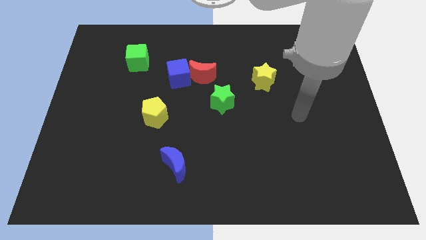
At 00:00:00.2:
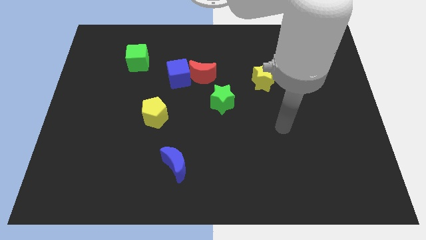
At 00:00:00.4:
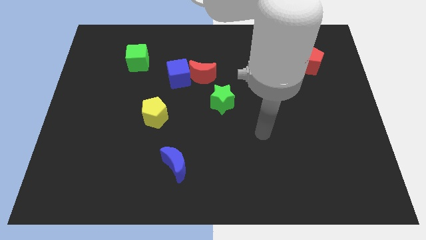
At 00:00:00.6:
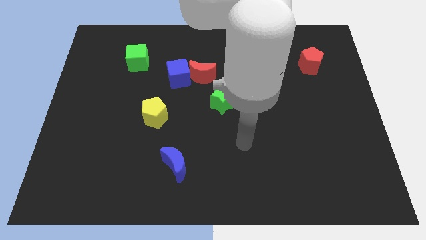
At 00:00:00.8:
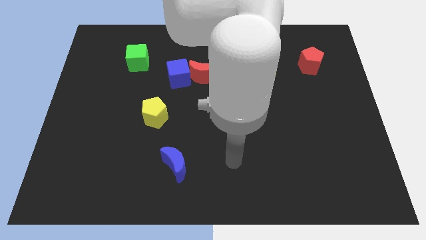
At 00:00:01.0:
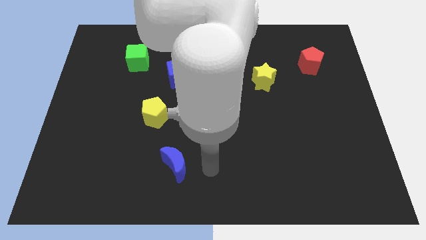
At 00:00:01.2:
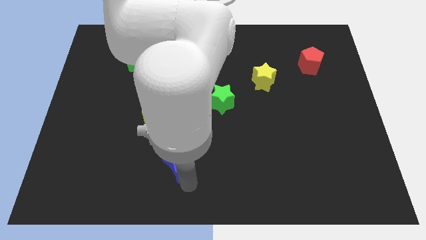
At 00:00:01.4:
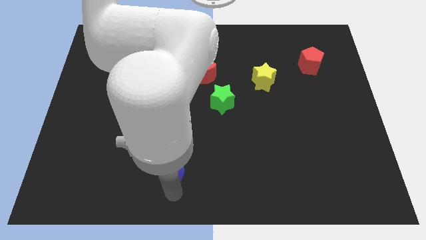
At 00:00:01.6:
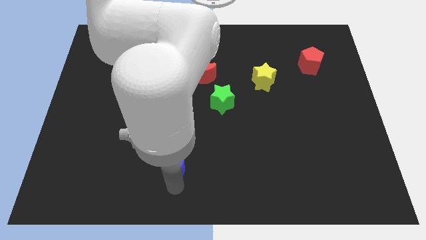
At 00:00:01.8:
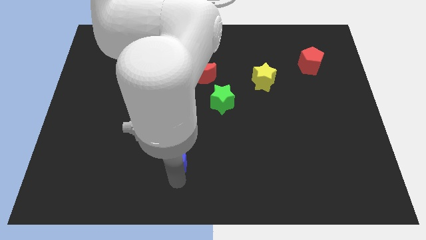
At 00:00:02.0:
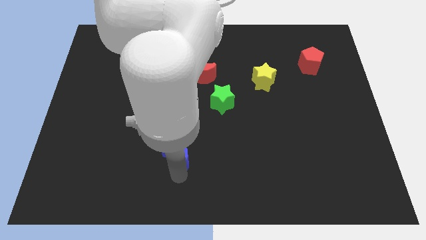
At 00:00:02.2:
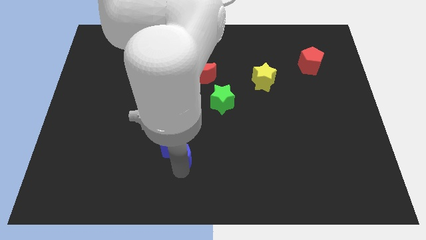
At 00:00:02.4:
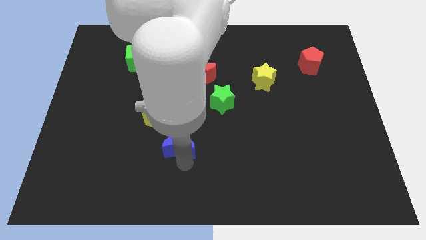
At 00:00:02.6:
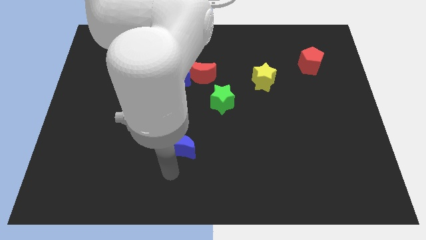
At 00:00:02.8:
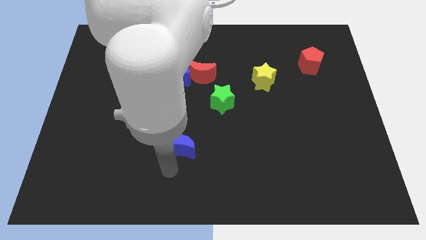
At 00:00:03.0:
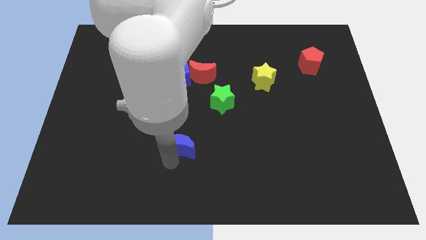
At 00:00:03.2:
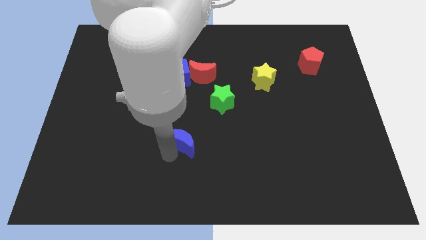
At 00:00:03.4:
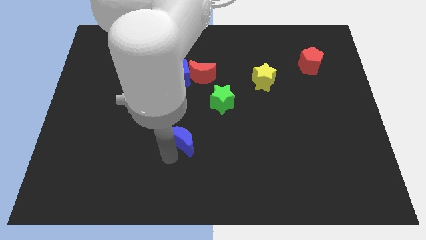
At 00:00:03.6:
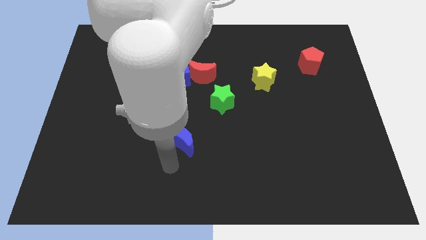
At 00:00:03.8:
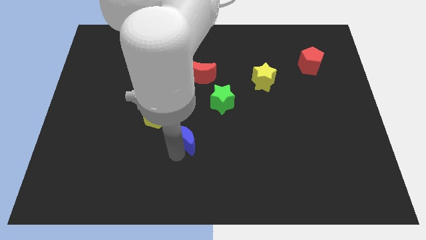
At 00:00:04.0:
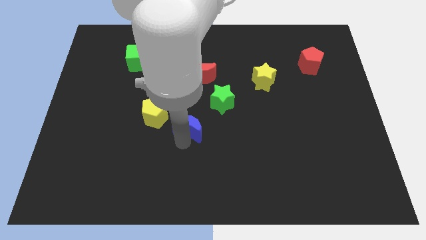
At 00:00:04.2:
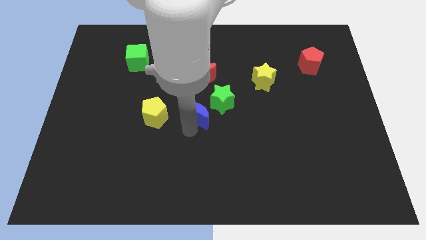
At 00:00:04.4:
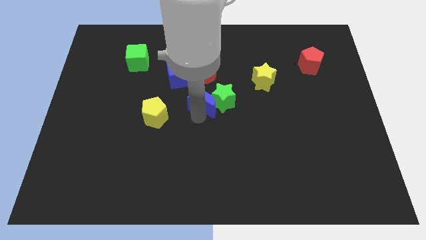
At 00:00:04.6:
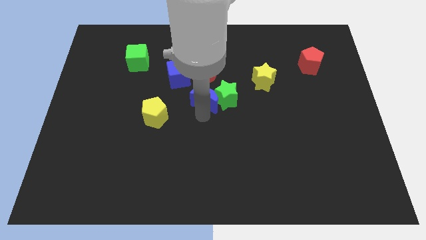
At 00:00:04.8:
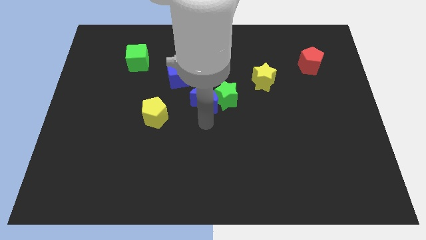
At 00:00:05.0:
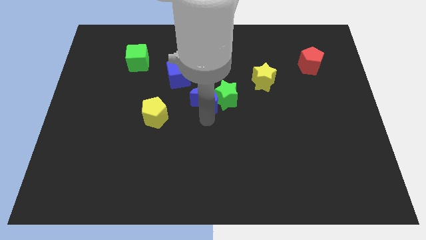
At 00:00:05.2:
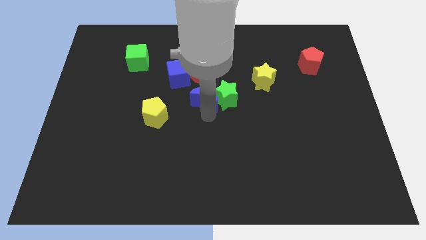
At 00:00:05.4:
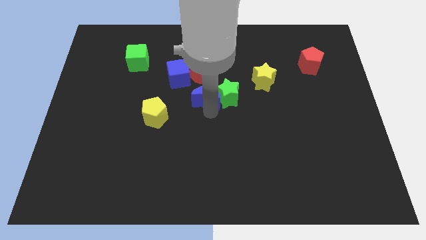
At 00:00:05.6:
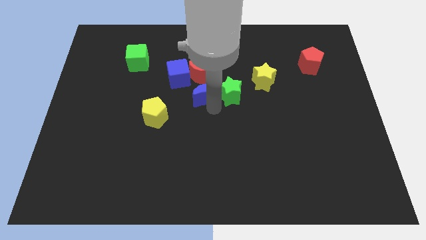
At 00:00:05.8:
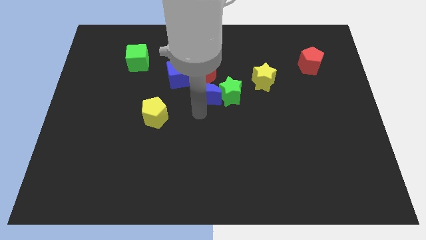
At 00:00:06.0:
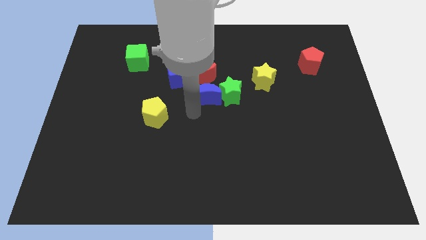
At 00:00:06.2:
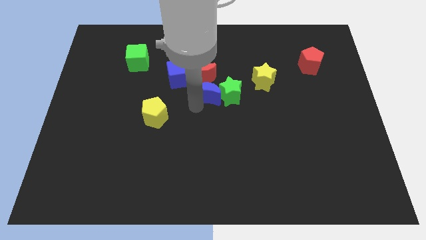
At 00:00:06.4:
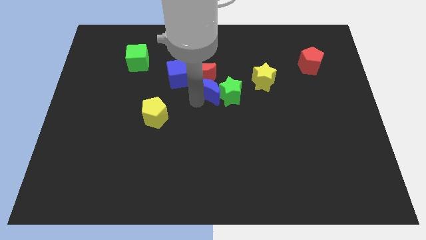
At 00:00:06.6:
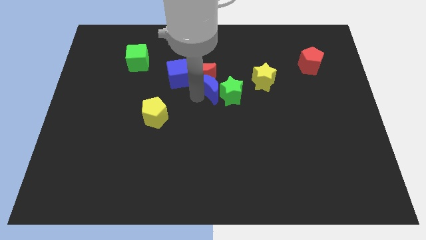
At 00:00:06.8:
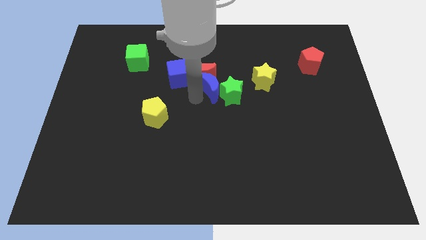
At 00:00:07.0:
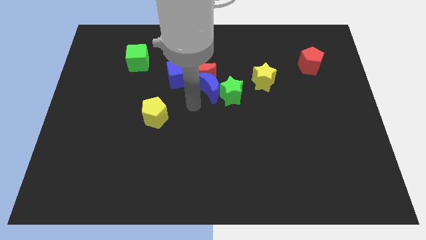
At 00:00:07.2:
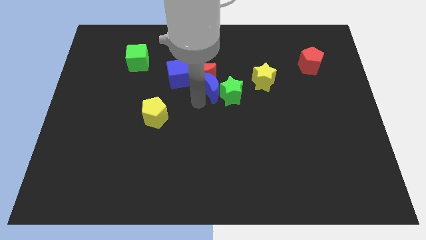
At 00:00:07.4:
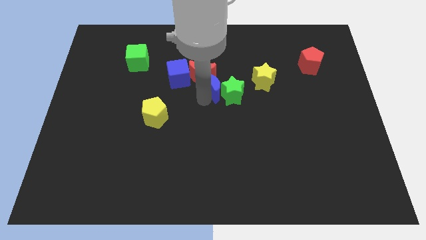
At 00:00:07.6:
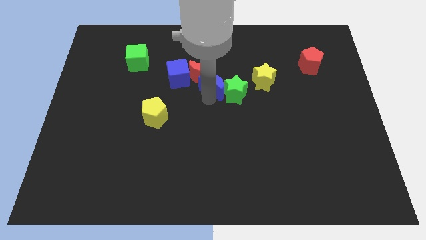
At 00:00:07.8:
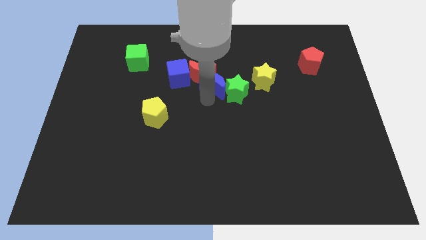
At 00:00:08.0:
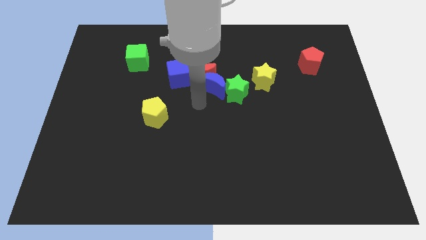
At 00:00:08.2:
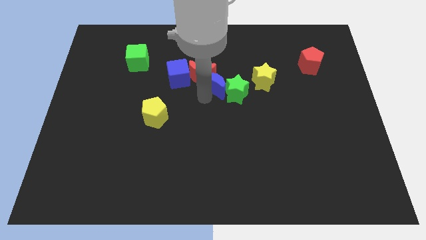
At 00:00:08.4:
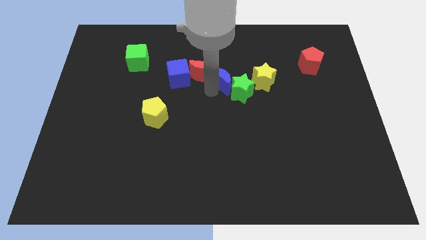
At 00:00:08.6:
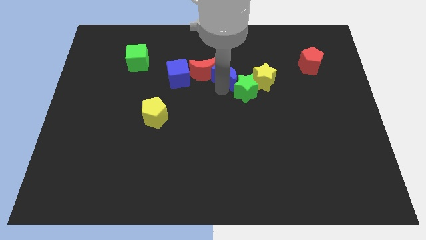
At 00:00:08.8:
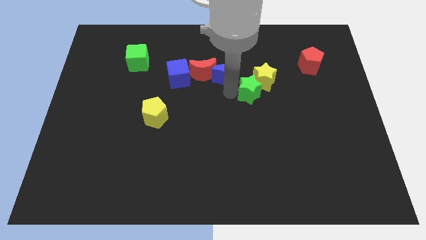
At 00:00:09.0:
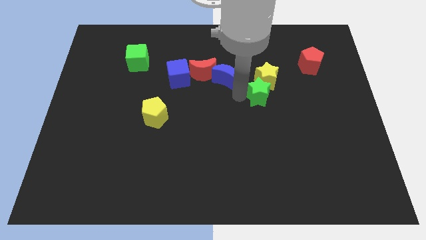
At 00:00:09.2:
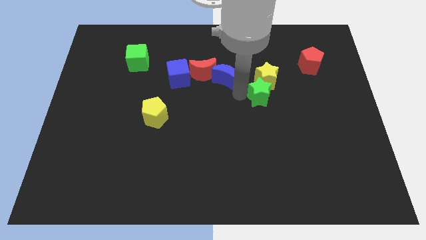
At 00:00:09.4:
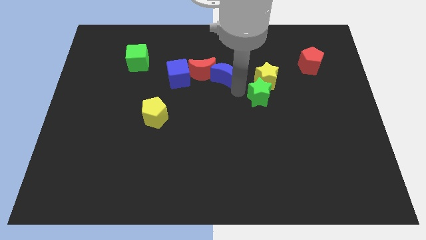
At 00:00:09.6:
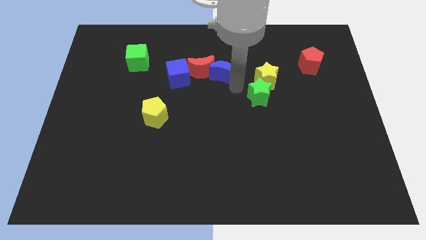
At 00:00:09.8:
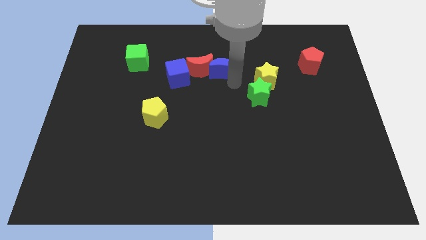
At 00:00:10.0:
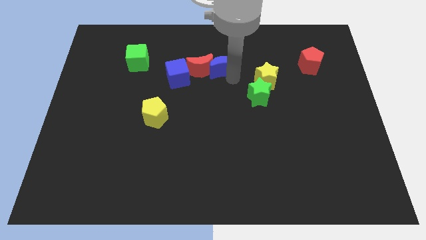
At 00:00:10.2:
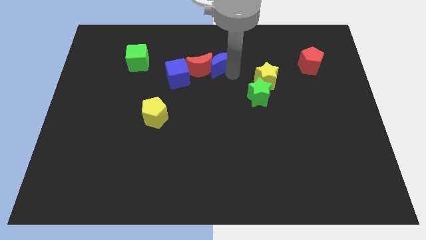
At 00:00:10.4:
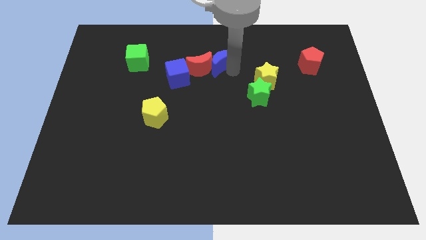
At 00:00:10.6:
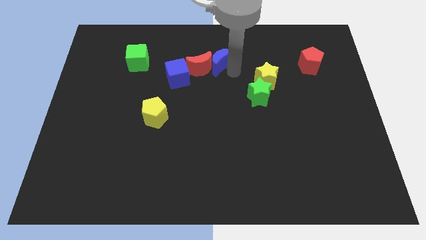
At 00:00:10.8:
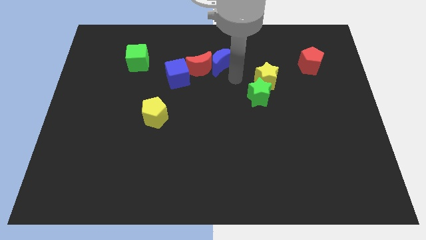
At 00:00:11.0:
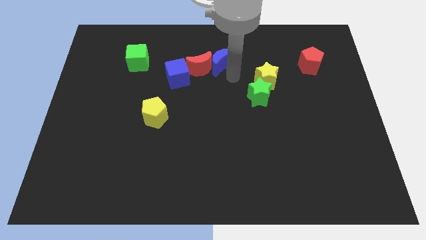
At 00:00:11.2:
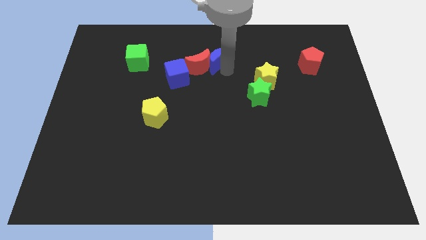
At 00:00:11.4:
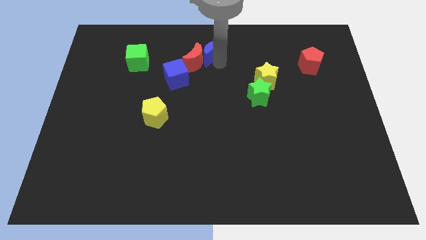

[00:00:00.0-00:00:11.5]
put the blue moon to the towards your base

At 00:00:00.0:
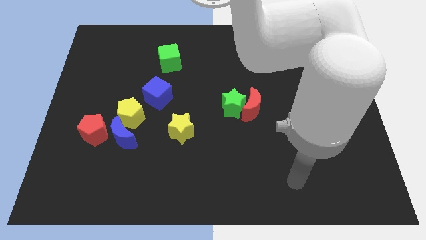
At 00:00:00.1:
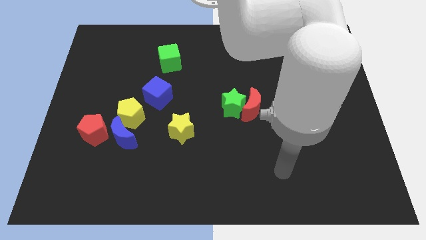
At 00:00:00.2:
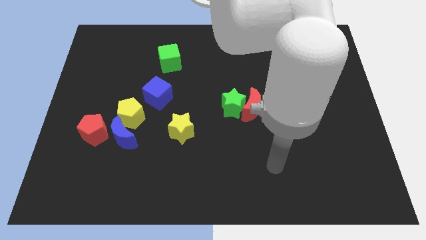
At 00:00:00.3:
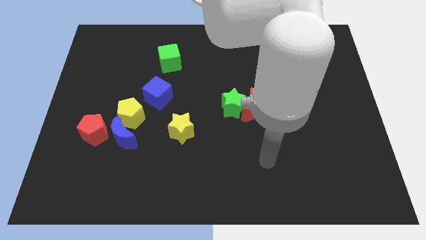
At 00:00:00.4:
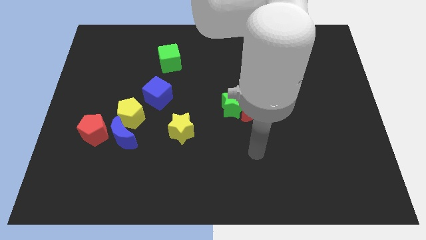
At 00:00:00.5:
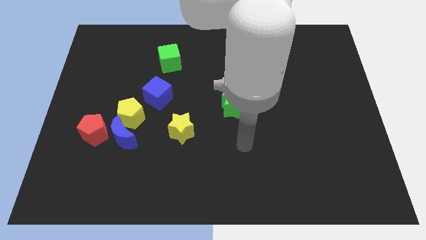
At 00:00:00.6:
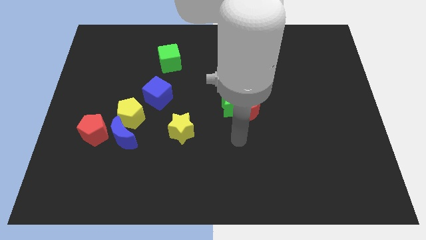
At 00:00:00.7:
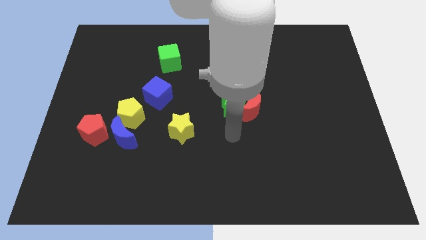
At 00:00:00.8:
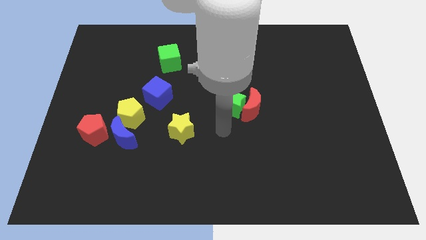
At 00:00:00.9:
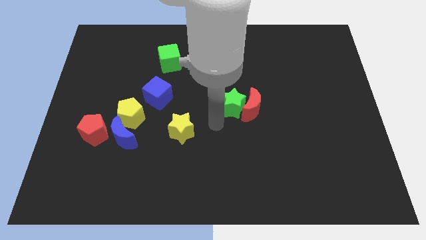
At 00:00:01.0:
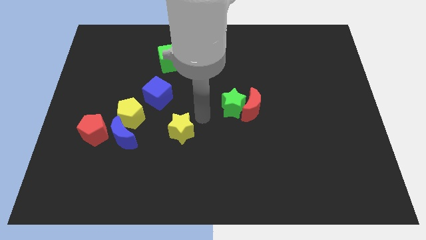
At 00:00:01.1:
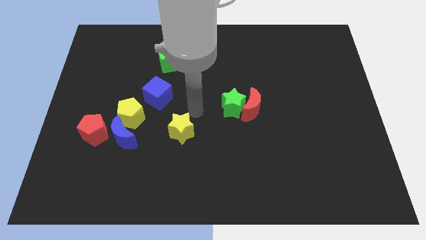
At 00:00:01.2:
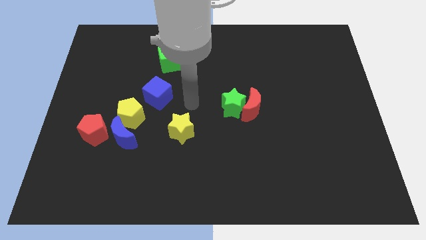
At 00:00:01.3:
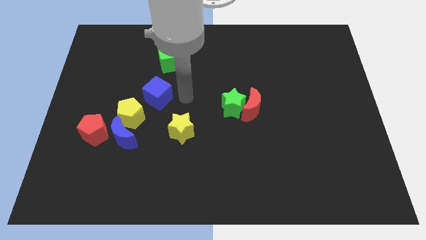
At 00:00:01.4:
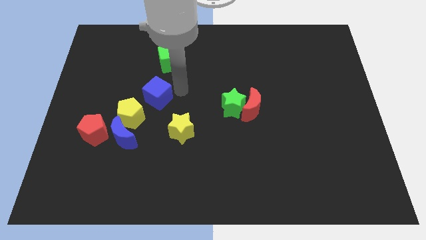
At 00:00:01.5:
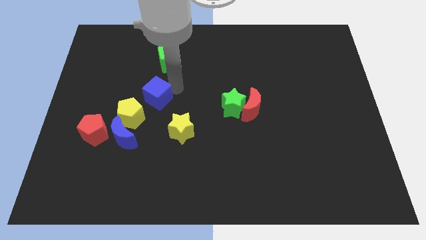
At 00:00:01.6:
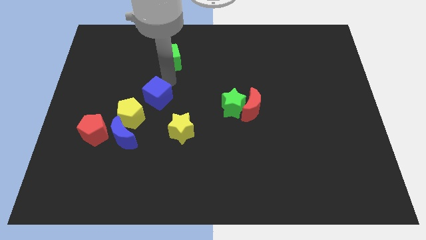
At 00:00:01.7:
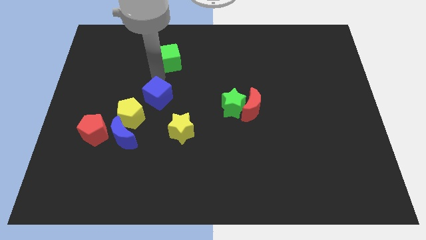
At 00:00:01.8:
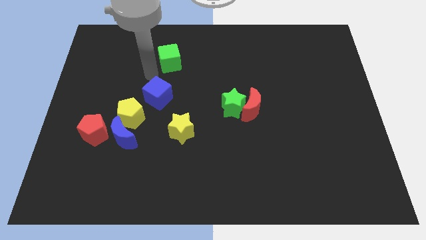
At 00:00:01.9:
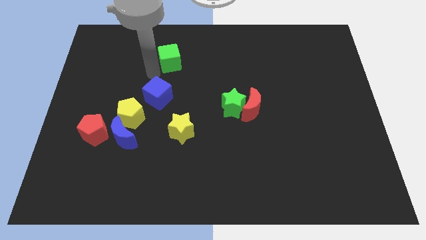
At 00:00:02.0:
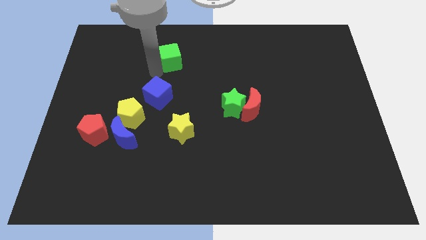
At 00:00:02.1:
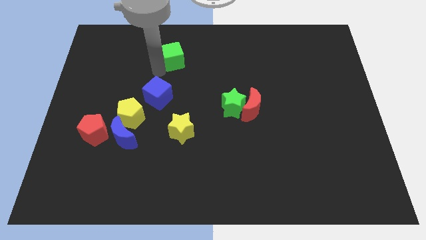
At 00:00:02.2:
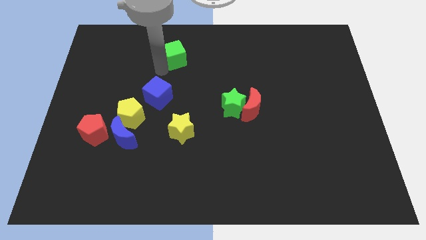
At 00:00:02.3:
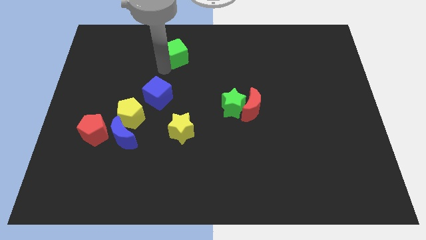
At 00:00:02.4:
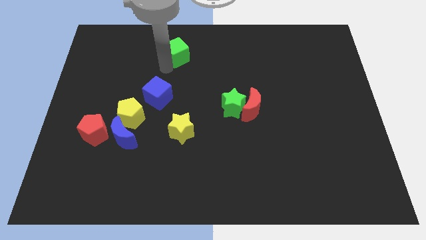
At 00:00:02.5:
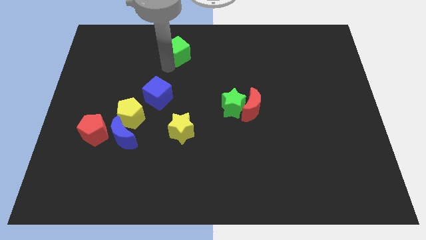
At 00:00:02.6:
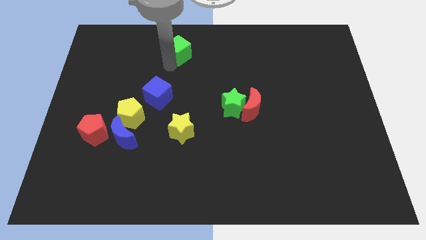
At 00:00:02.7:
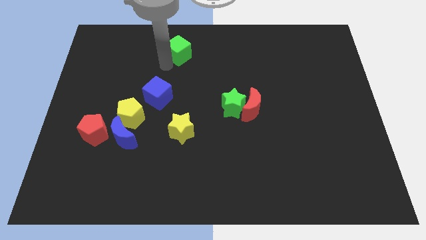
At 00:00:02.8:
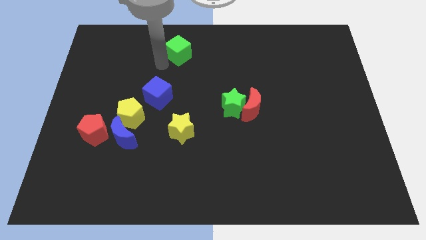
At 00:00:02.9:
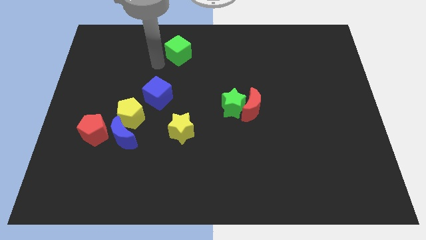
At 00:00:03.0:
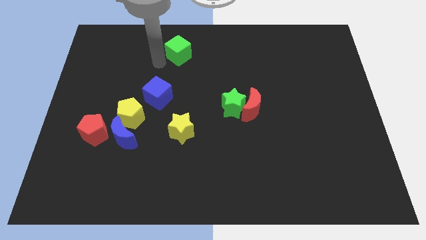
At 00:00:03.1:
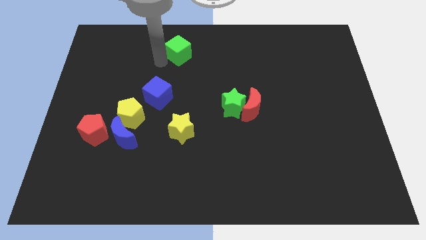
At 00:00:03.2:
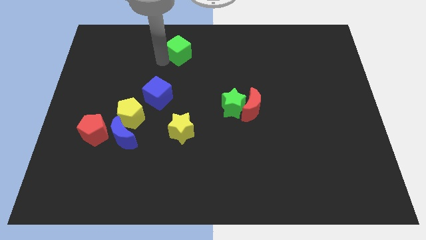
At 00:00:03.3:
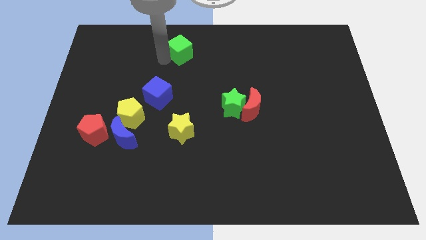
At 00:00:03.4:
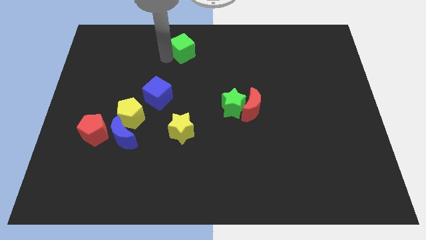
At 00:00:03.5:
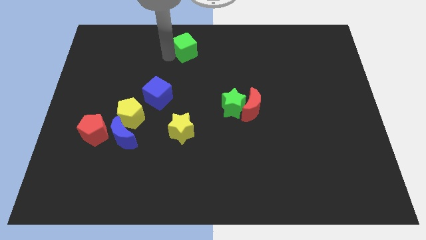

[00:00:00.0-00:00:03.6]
push the green cube to the top
